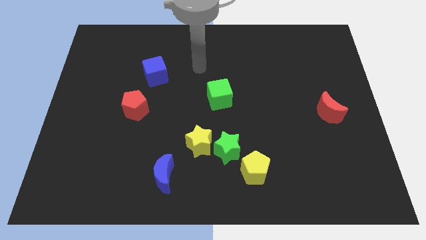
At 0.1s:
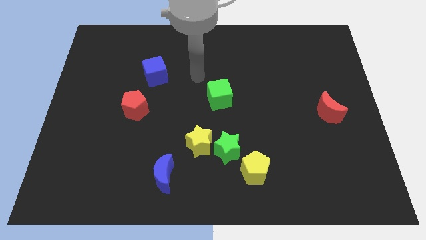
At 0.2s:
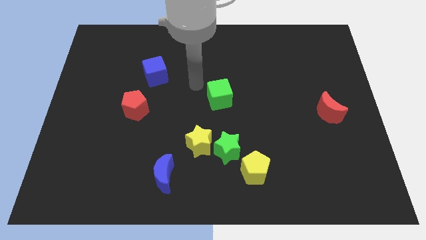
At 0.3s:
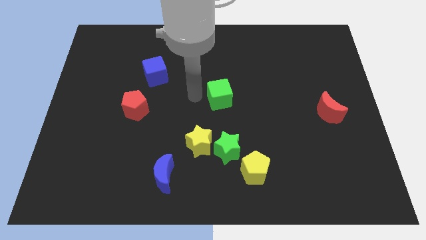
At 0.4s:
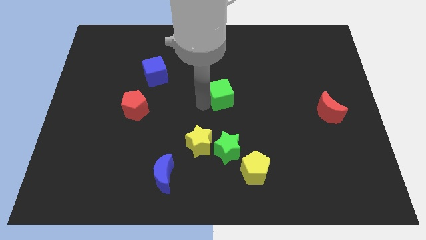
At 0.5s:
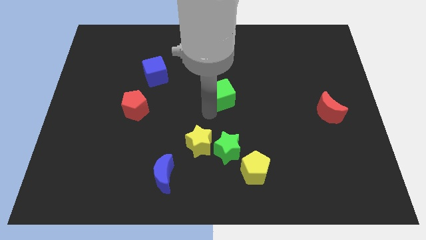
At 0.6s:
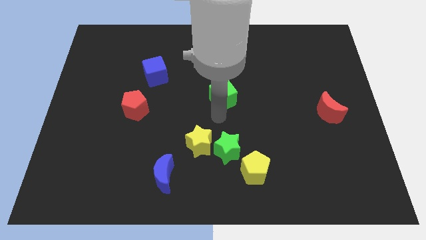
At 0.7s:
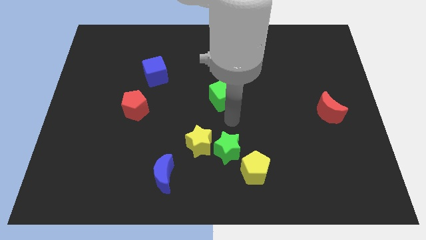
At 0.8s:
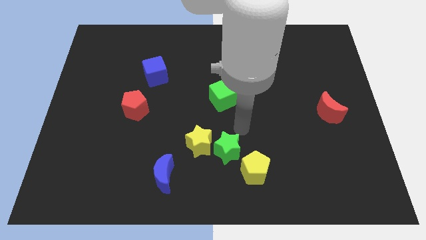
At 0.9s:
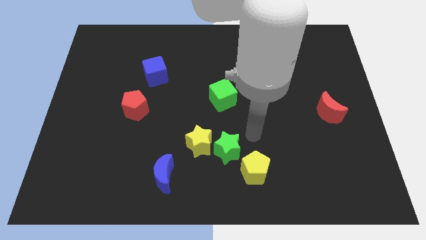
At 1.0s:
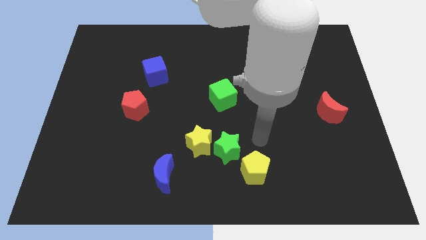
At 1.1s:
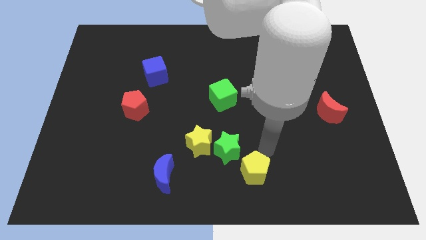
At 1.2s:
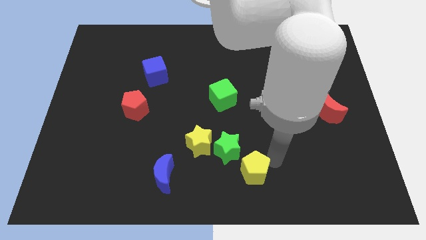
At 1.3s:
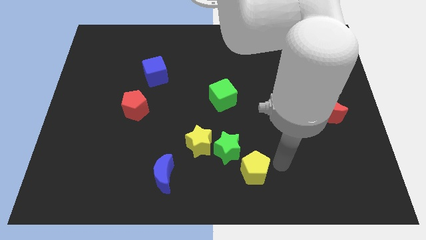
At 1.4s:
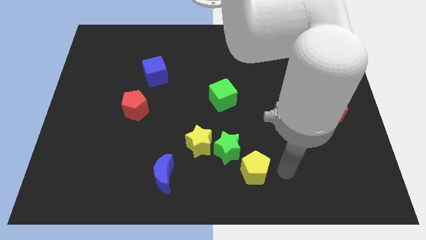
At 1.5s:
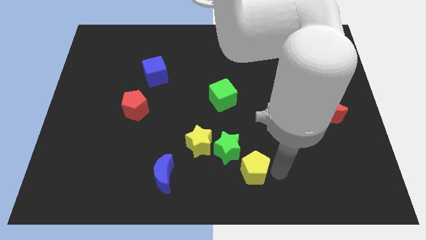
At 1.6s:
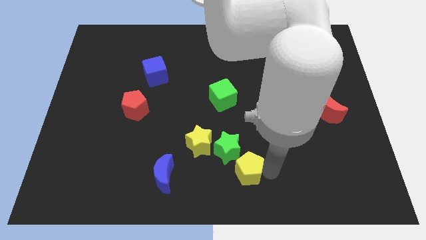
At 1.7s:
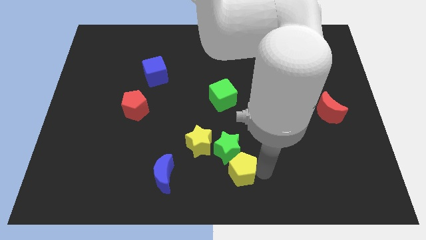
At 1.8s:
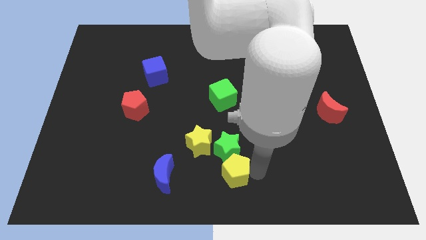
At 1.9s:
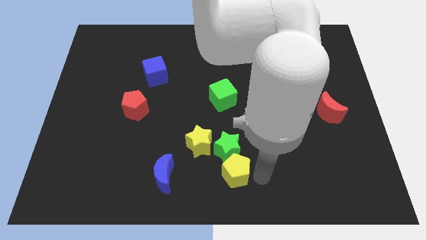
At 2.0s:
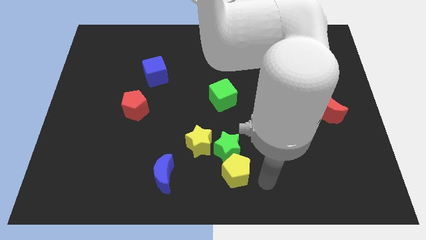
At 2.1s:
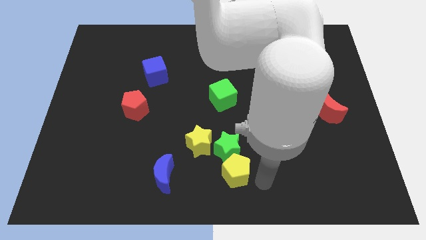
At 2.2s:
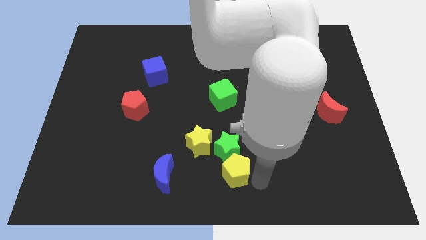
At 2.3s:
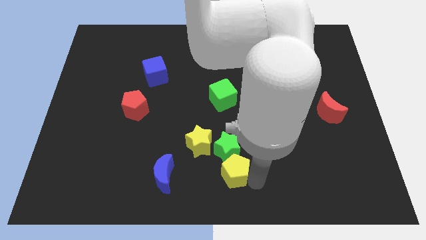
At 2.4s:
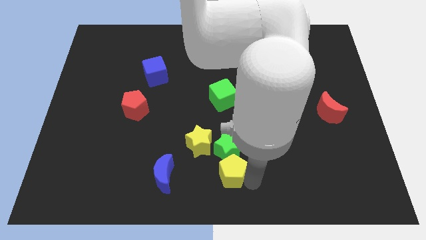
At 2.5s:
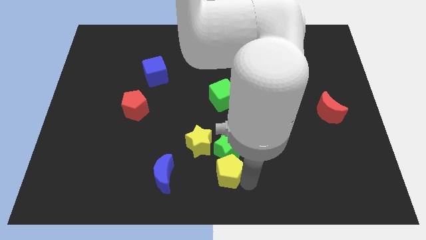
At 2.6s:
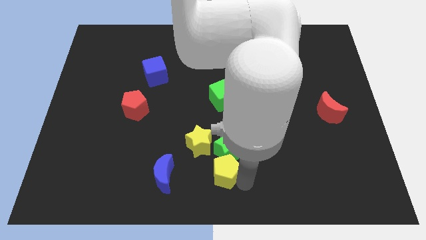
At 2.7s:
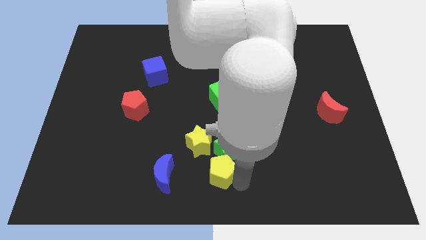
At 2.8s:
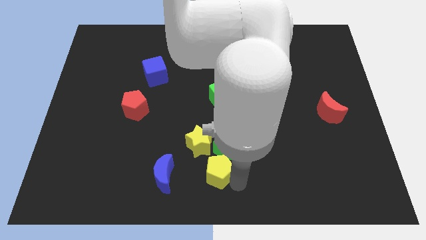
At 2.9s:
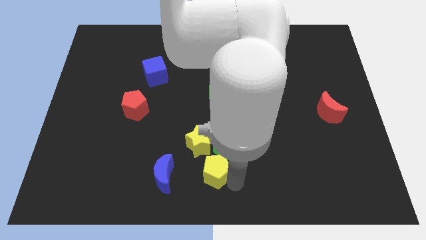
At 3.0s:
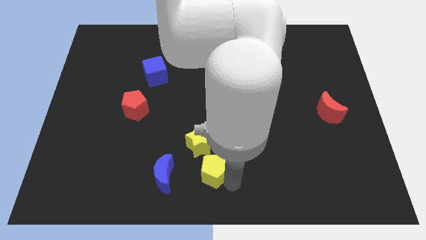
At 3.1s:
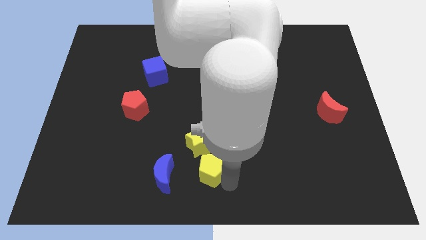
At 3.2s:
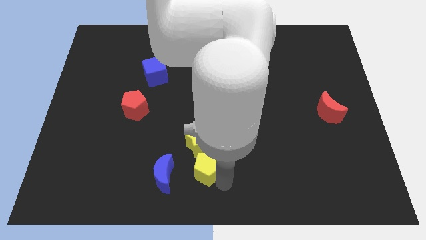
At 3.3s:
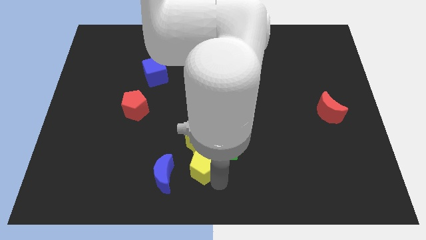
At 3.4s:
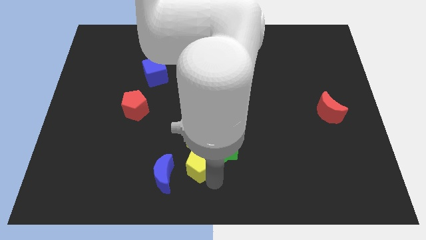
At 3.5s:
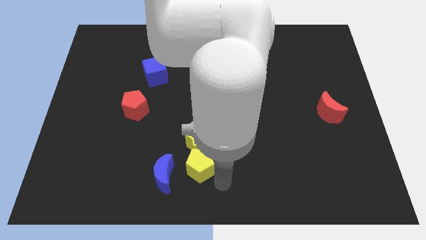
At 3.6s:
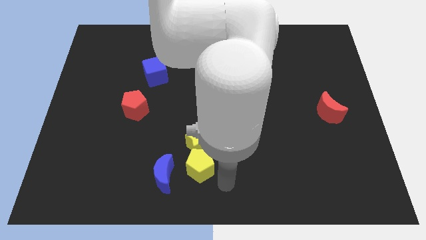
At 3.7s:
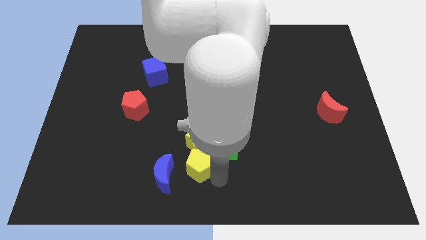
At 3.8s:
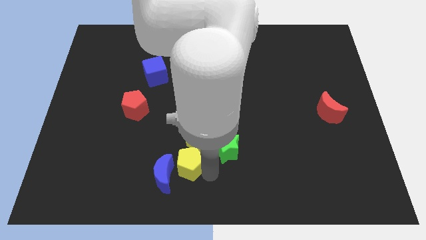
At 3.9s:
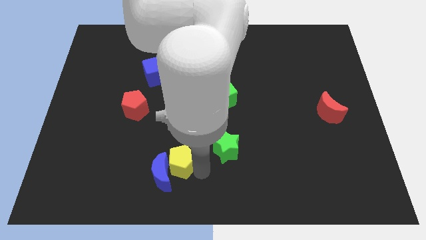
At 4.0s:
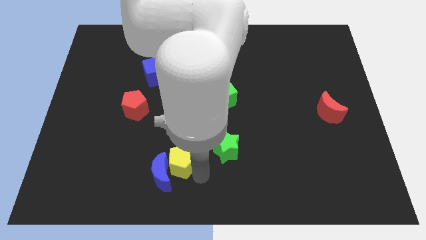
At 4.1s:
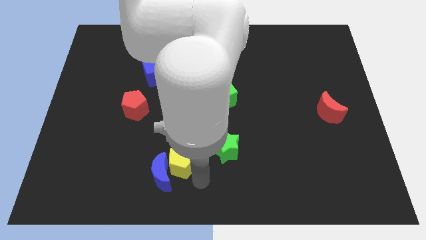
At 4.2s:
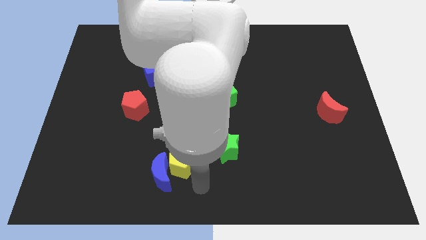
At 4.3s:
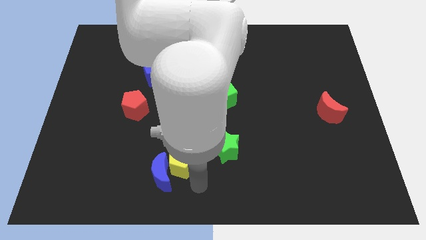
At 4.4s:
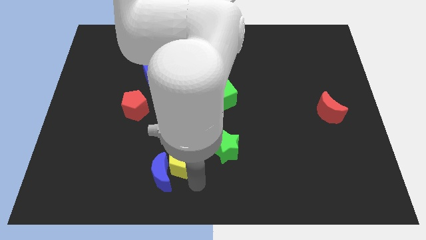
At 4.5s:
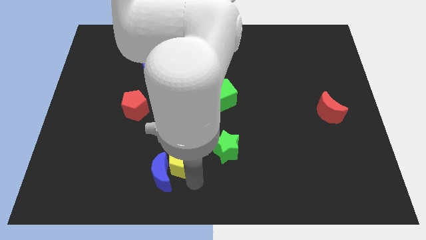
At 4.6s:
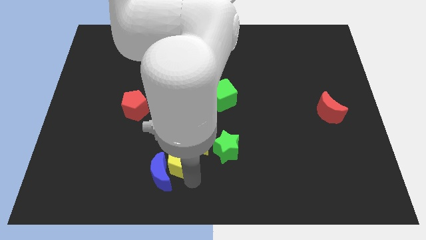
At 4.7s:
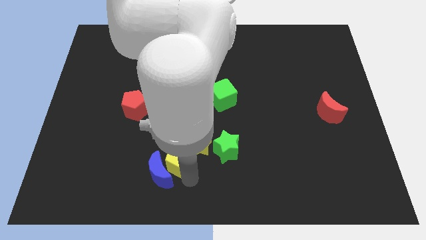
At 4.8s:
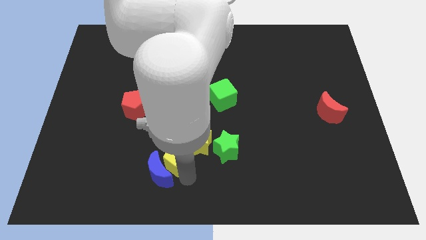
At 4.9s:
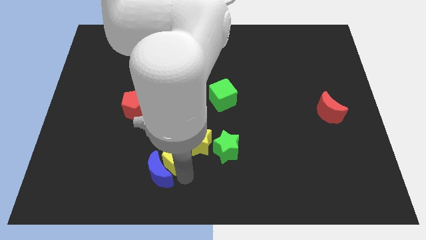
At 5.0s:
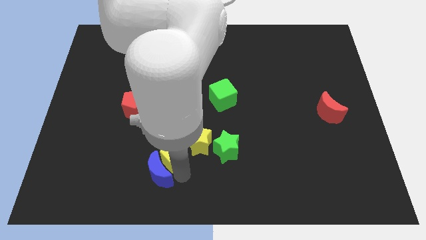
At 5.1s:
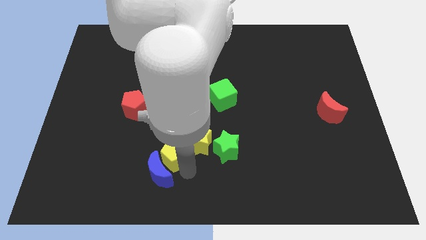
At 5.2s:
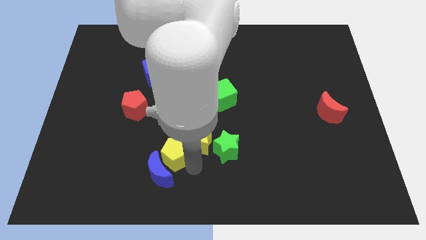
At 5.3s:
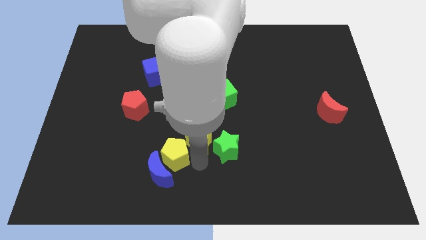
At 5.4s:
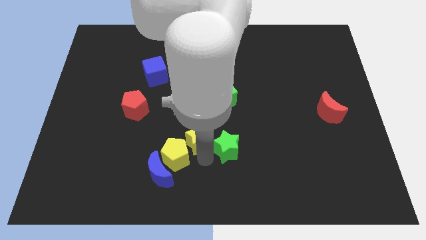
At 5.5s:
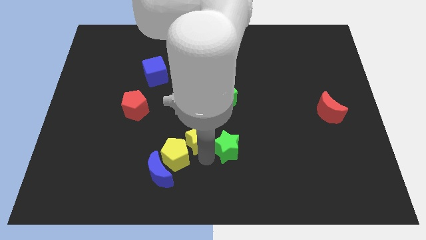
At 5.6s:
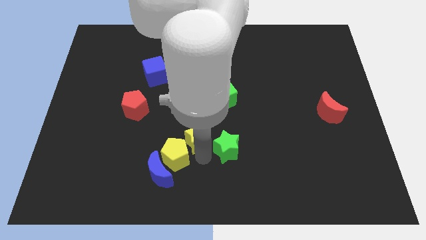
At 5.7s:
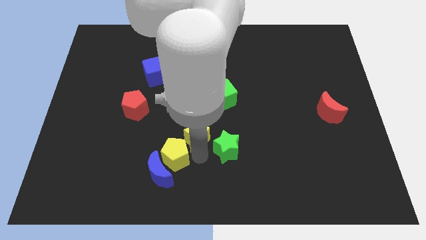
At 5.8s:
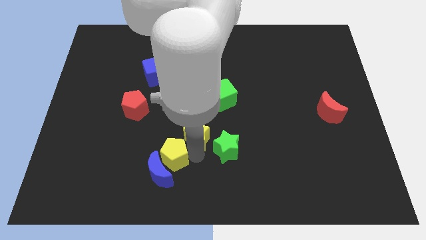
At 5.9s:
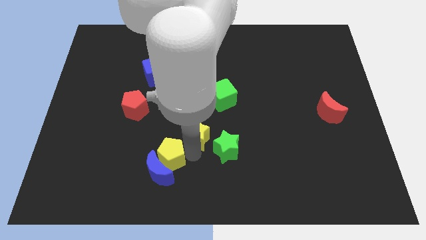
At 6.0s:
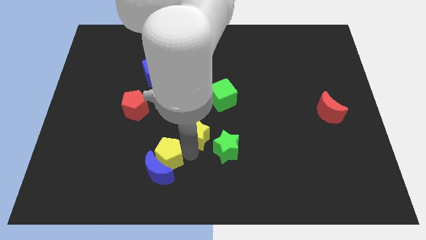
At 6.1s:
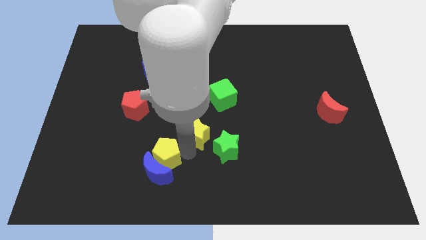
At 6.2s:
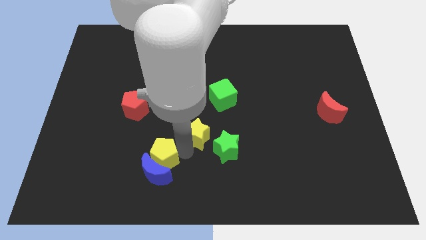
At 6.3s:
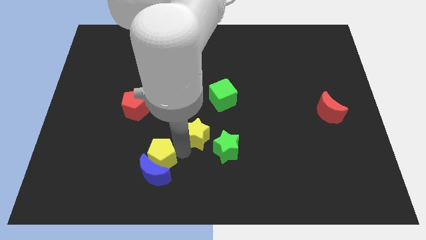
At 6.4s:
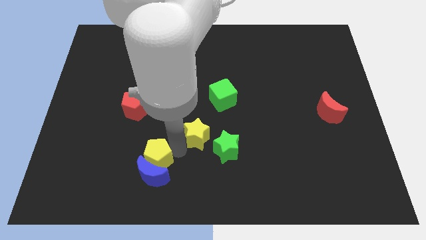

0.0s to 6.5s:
move the yellow pentagon to the left

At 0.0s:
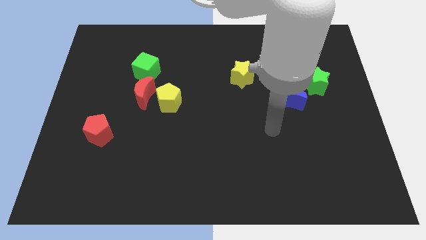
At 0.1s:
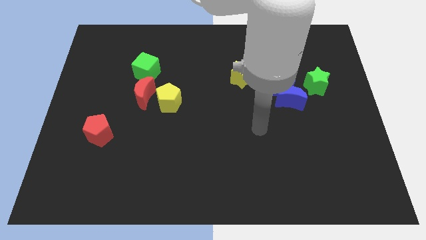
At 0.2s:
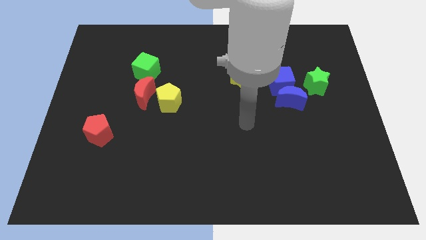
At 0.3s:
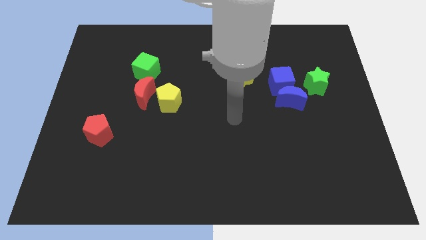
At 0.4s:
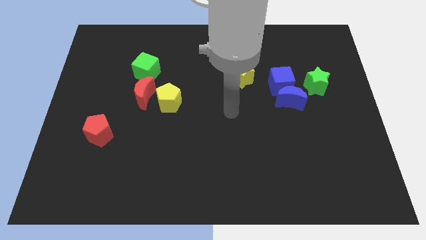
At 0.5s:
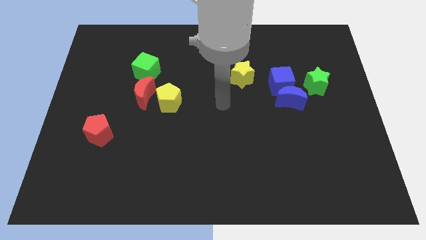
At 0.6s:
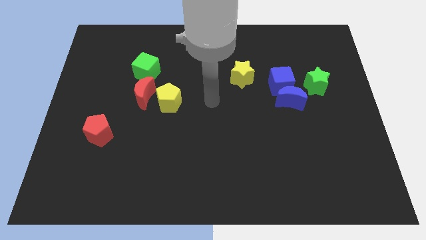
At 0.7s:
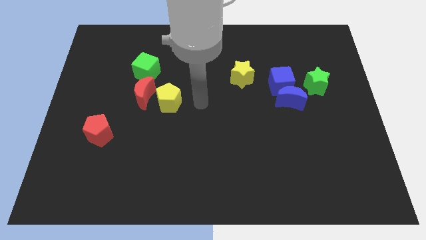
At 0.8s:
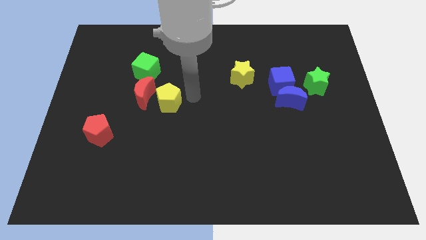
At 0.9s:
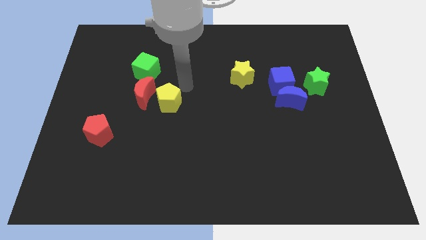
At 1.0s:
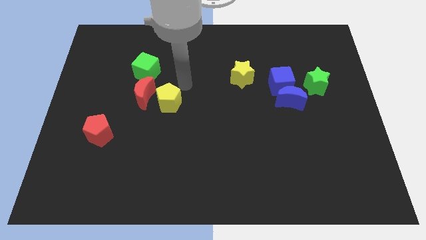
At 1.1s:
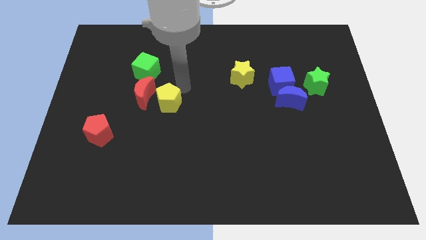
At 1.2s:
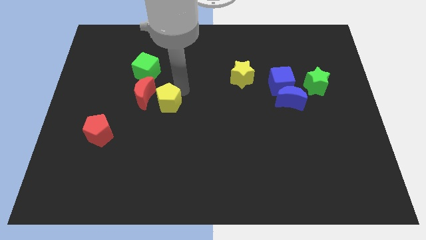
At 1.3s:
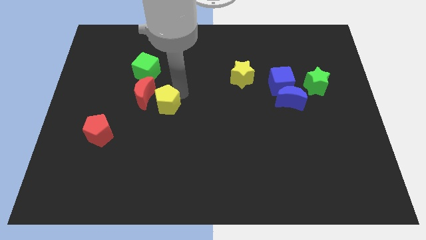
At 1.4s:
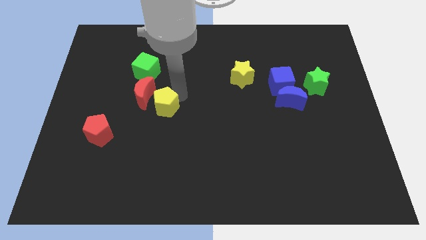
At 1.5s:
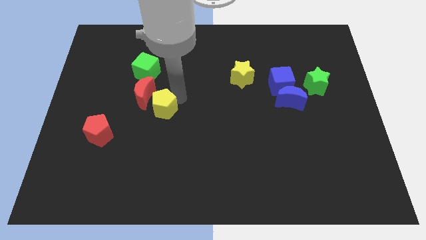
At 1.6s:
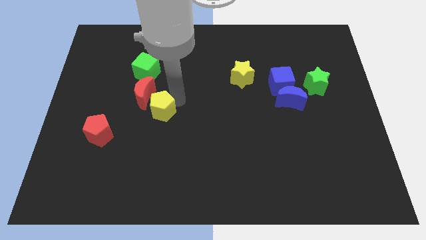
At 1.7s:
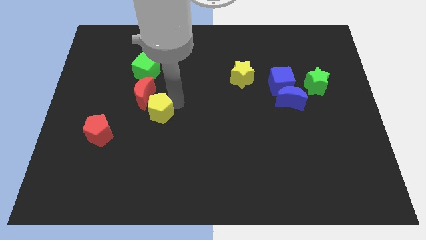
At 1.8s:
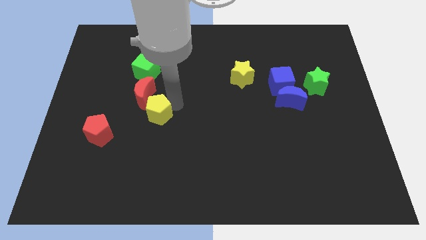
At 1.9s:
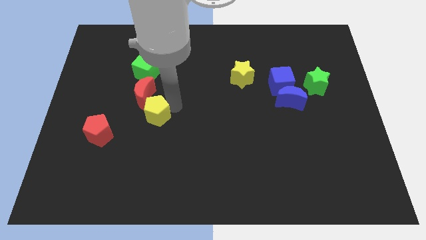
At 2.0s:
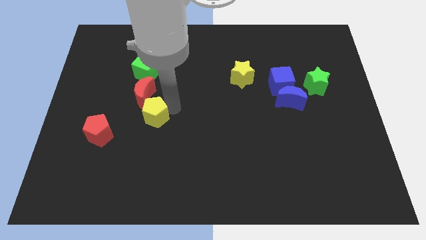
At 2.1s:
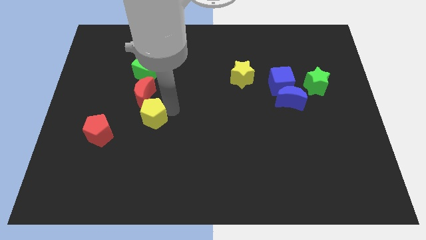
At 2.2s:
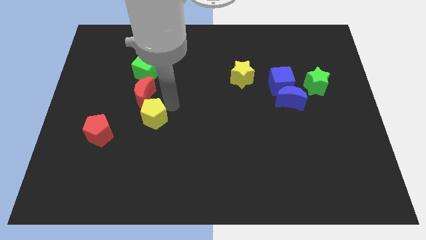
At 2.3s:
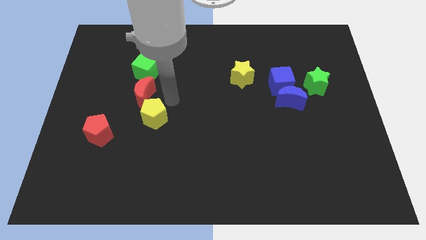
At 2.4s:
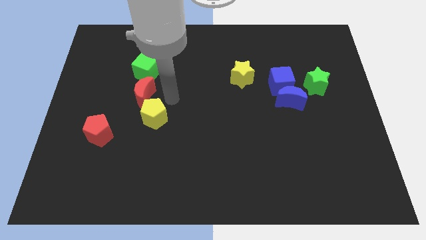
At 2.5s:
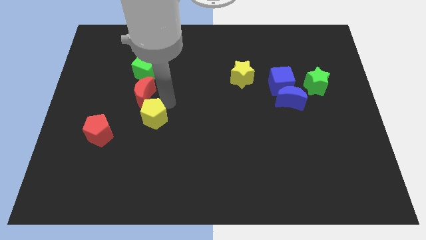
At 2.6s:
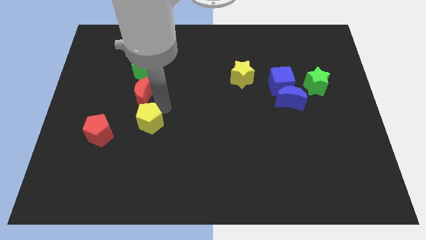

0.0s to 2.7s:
slightly slide the yellow pentagon down and then left
